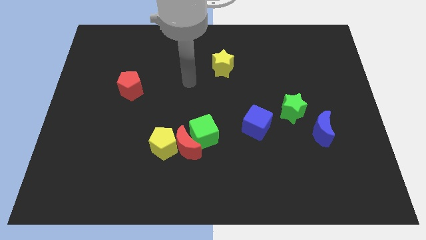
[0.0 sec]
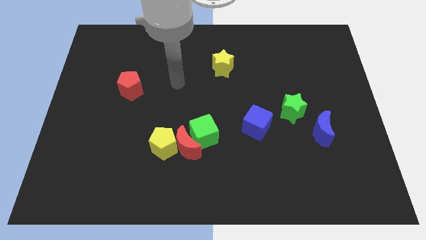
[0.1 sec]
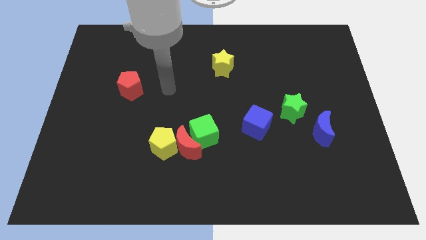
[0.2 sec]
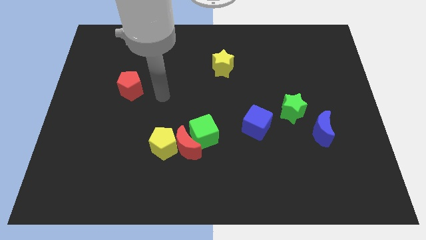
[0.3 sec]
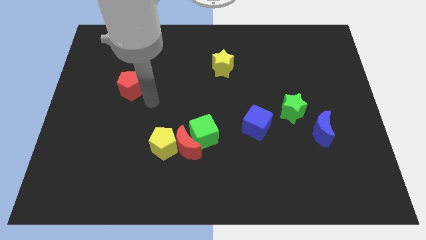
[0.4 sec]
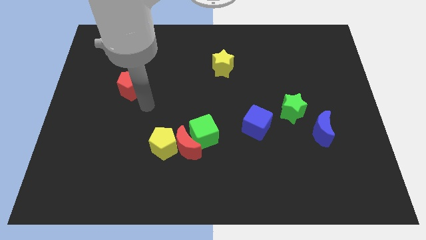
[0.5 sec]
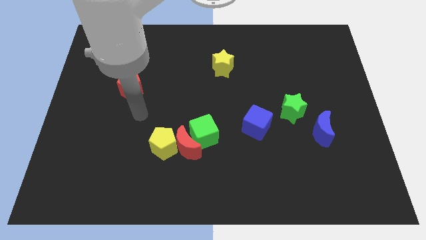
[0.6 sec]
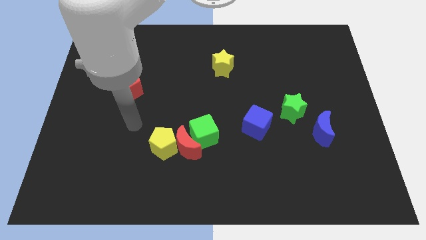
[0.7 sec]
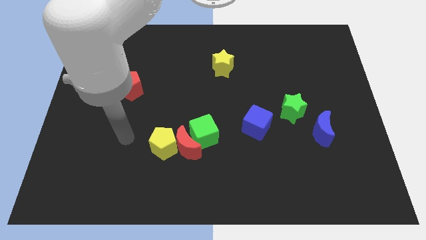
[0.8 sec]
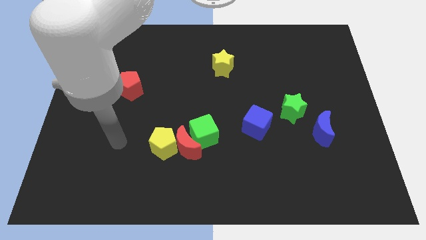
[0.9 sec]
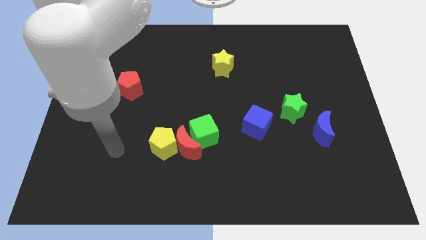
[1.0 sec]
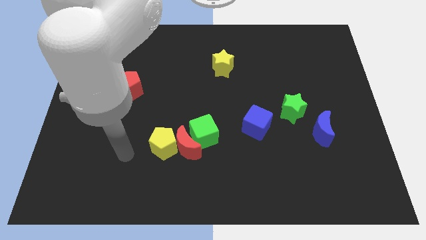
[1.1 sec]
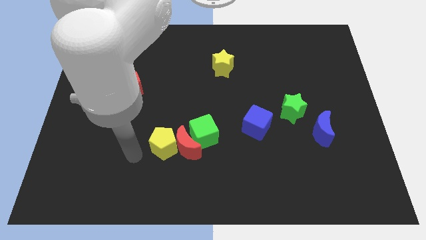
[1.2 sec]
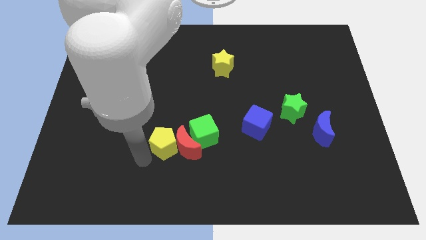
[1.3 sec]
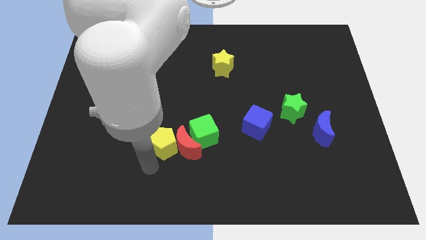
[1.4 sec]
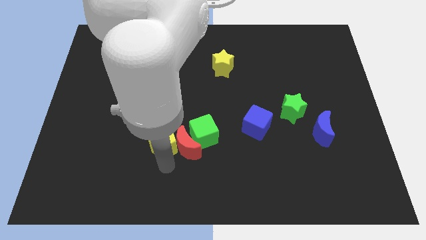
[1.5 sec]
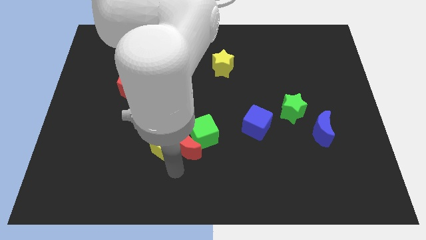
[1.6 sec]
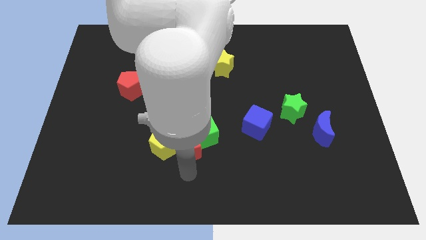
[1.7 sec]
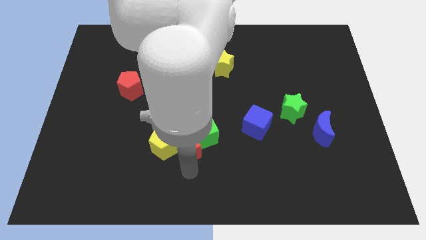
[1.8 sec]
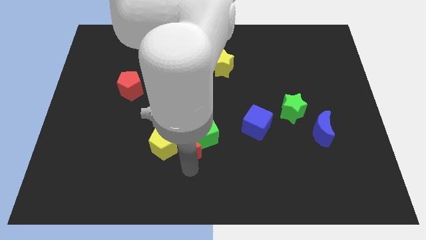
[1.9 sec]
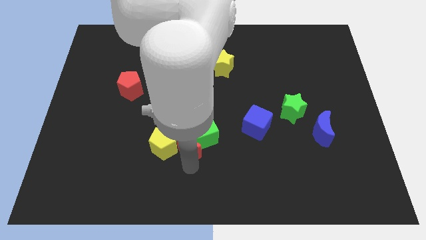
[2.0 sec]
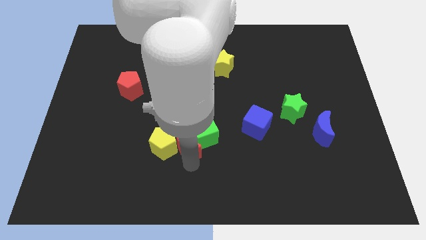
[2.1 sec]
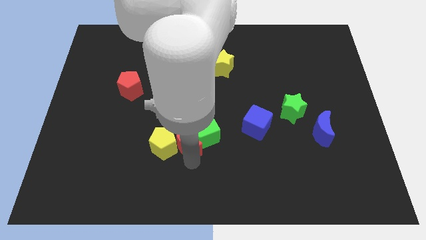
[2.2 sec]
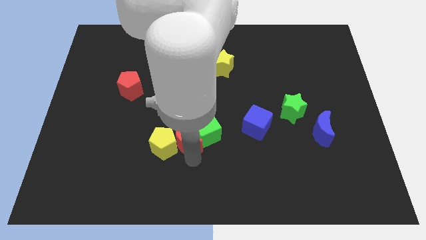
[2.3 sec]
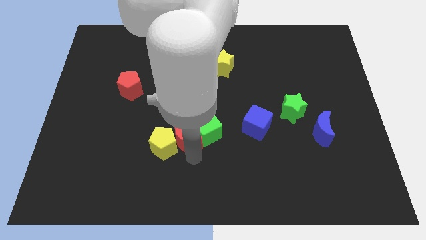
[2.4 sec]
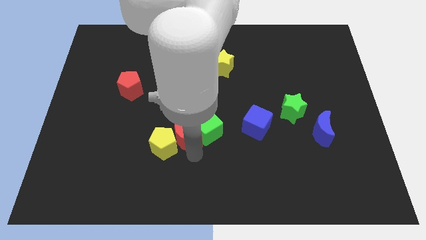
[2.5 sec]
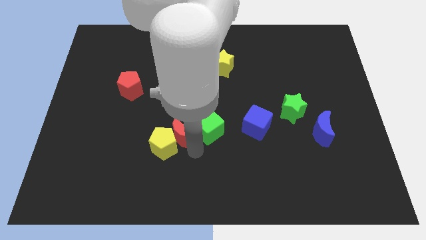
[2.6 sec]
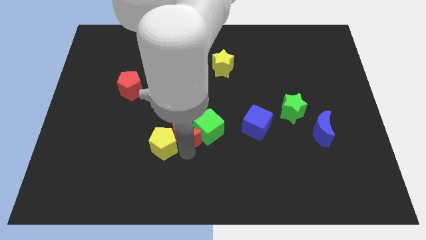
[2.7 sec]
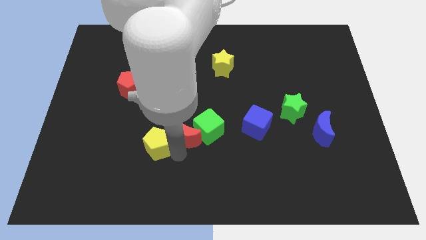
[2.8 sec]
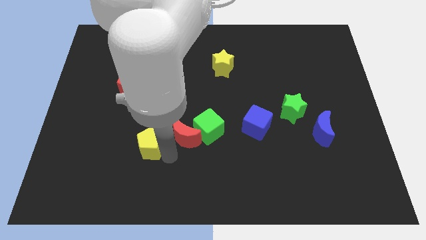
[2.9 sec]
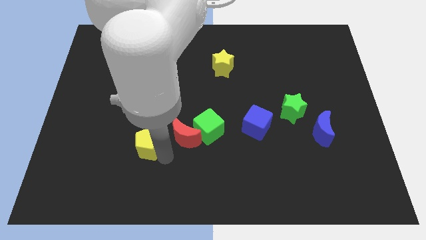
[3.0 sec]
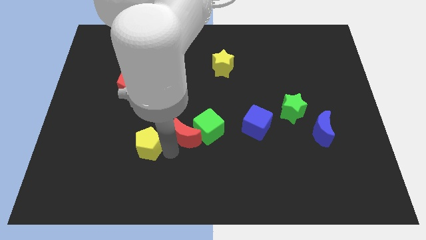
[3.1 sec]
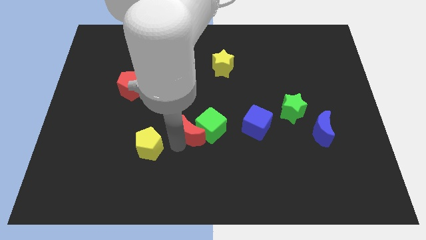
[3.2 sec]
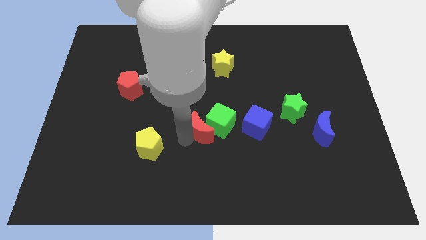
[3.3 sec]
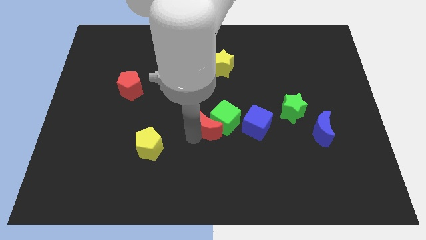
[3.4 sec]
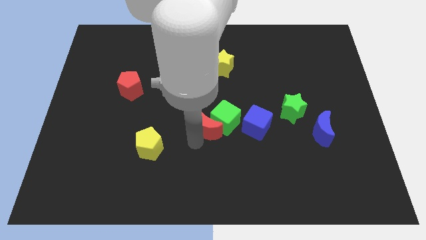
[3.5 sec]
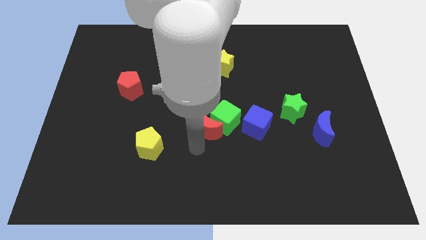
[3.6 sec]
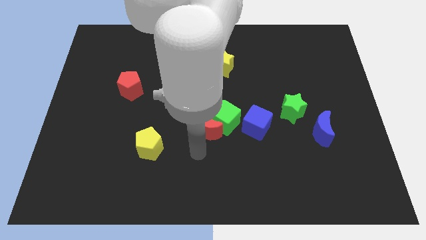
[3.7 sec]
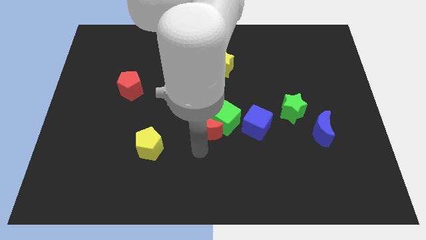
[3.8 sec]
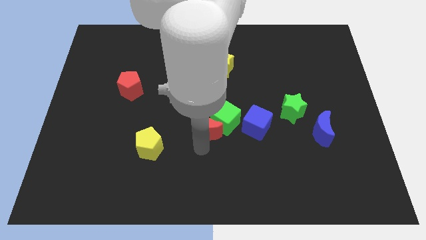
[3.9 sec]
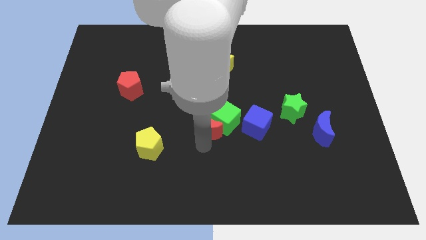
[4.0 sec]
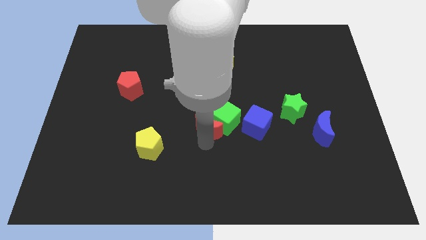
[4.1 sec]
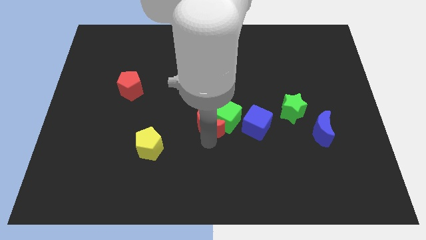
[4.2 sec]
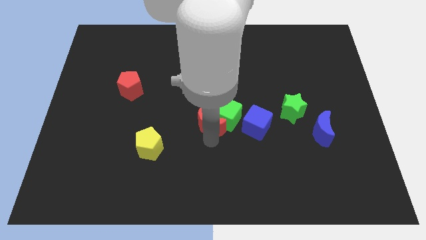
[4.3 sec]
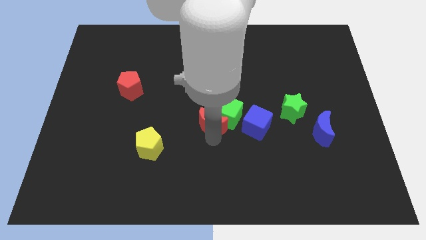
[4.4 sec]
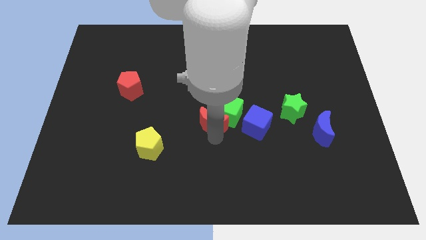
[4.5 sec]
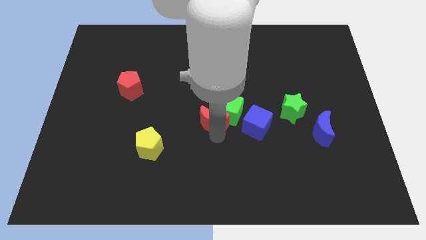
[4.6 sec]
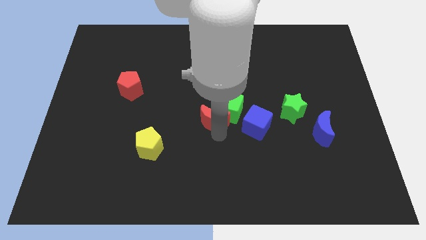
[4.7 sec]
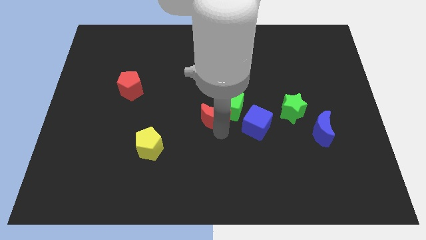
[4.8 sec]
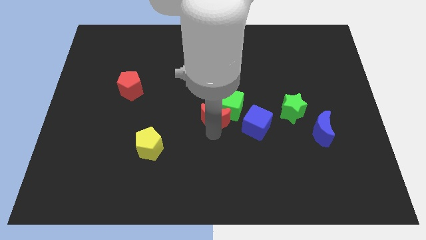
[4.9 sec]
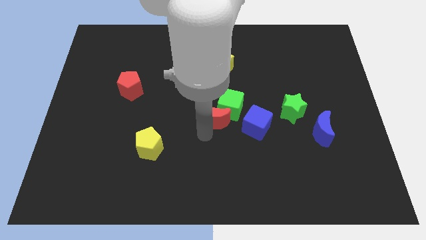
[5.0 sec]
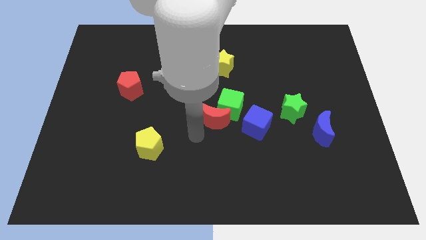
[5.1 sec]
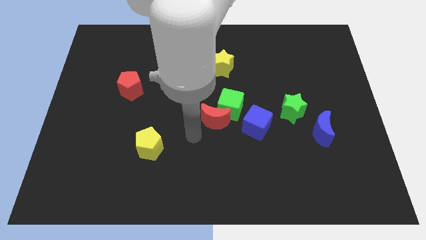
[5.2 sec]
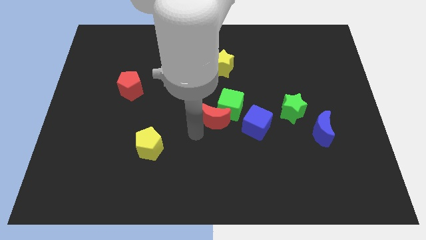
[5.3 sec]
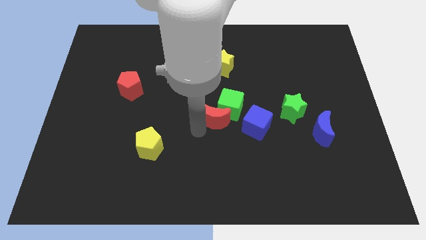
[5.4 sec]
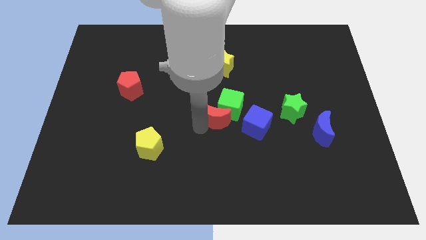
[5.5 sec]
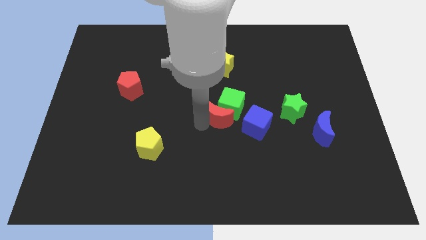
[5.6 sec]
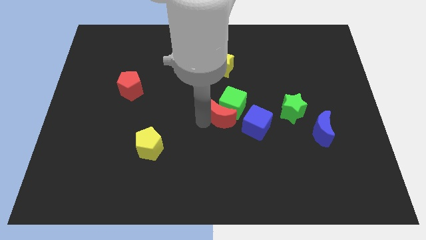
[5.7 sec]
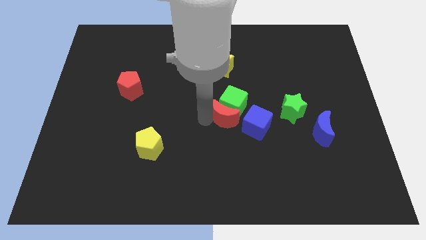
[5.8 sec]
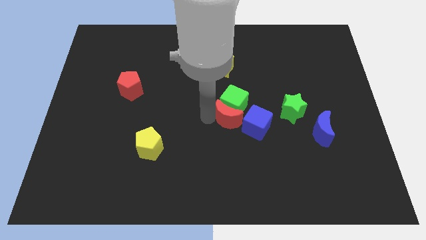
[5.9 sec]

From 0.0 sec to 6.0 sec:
push the red moon to the left of the green star
